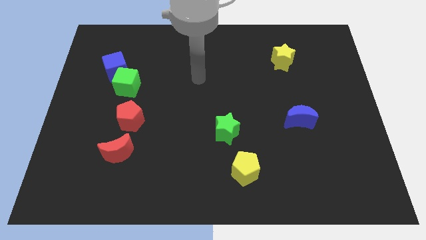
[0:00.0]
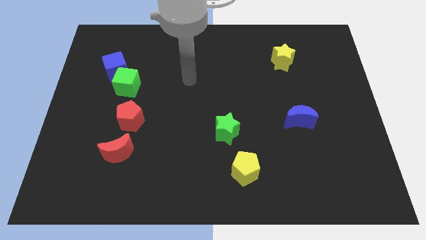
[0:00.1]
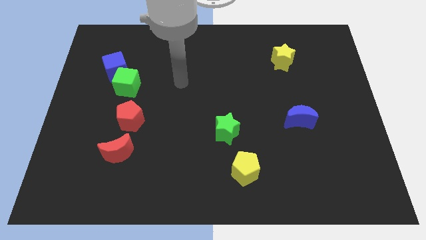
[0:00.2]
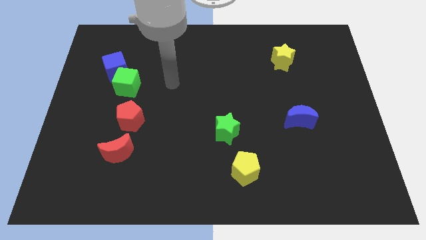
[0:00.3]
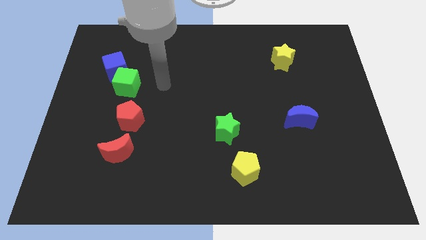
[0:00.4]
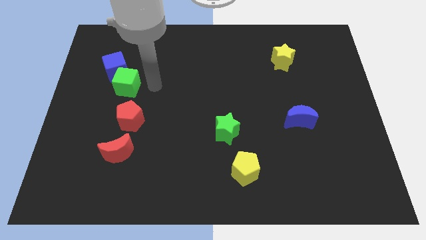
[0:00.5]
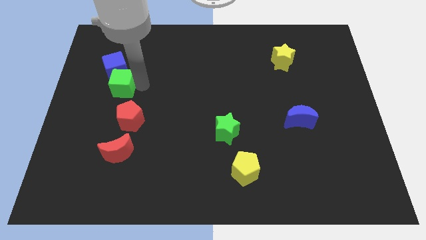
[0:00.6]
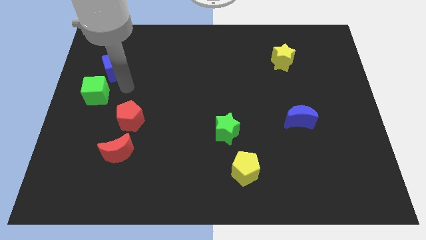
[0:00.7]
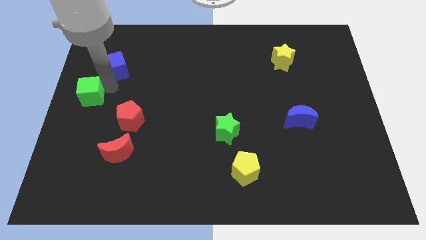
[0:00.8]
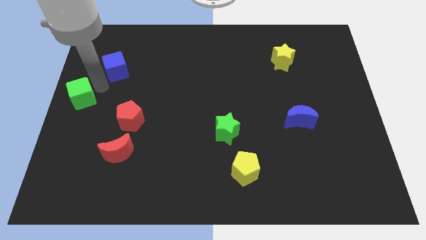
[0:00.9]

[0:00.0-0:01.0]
move the blue cube away from the green cube

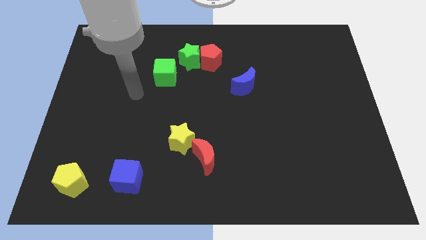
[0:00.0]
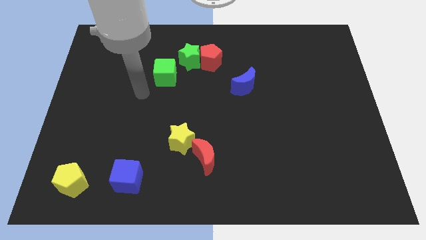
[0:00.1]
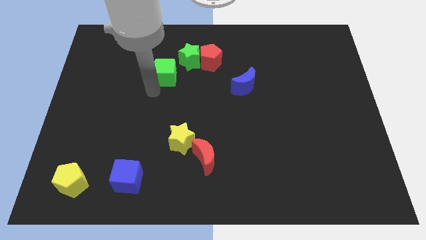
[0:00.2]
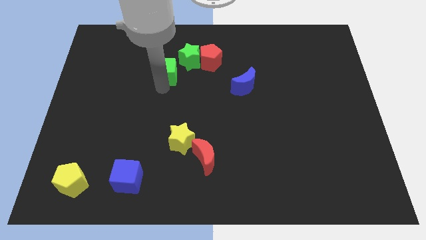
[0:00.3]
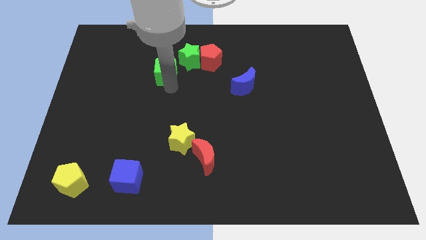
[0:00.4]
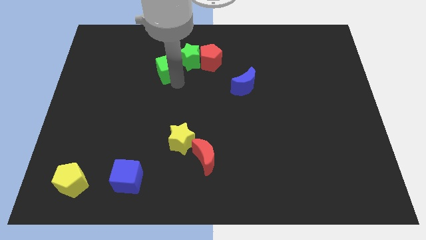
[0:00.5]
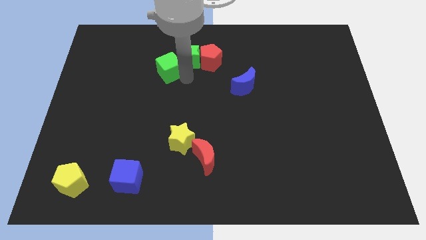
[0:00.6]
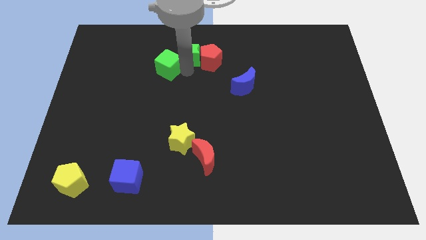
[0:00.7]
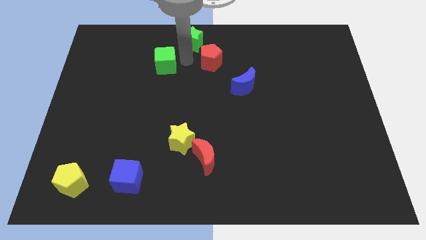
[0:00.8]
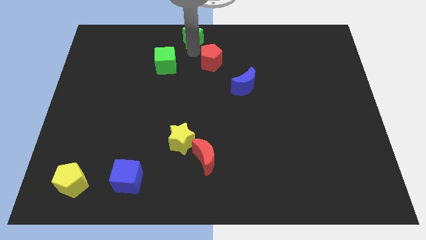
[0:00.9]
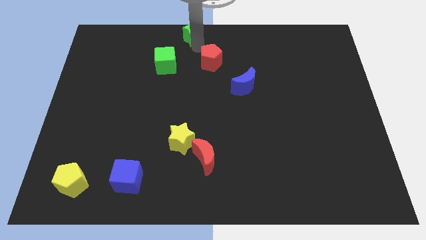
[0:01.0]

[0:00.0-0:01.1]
pull the red pentagon apart from the green star

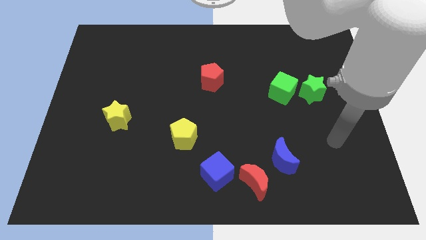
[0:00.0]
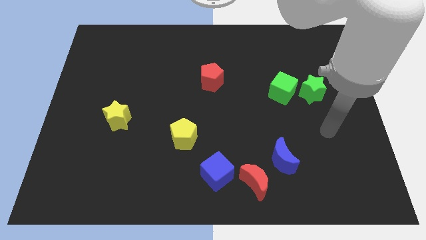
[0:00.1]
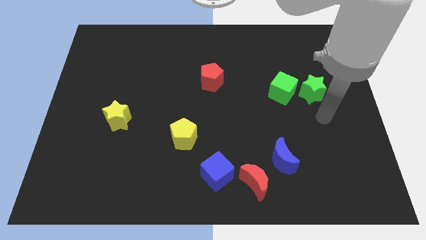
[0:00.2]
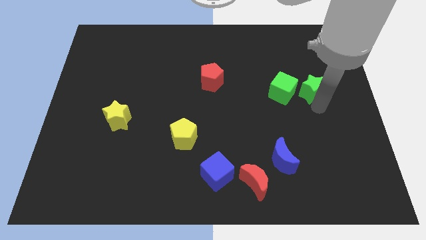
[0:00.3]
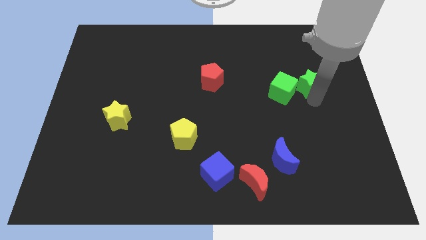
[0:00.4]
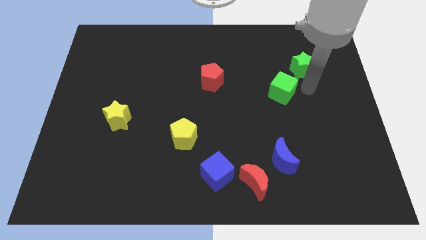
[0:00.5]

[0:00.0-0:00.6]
separate the green cube from the green star

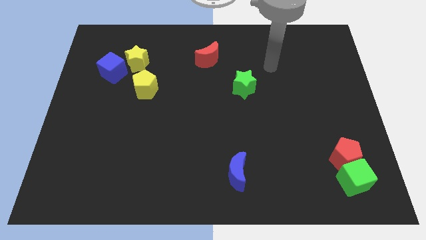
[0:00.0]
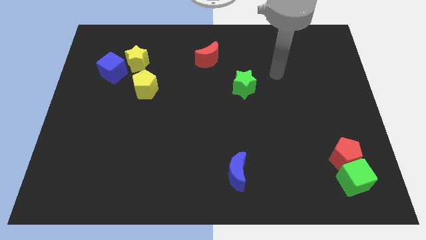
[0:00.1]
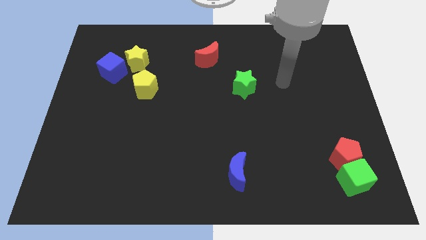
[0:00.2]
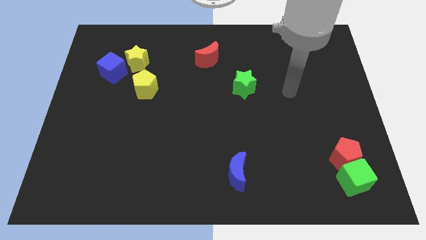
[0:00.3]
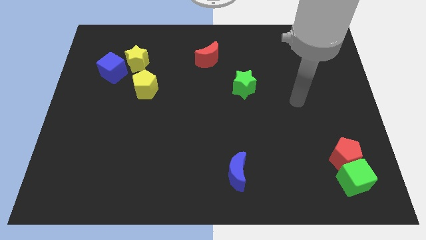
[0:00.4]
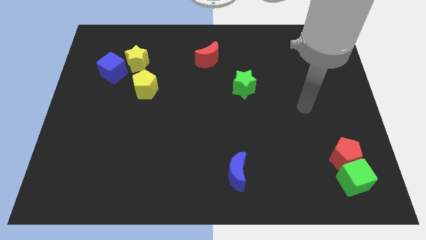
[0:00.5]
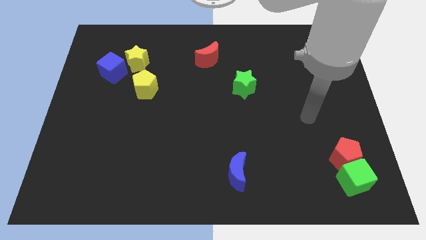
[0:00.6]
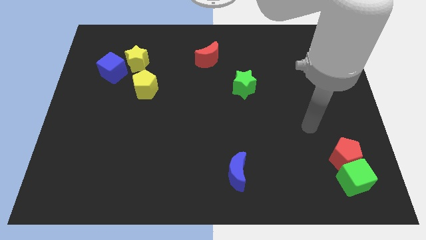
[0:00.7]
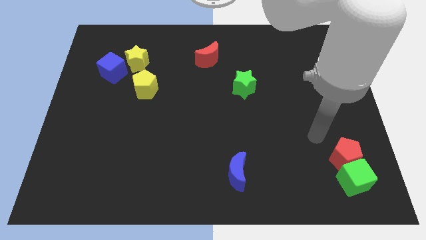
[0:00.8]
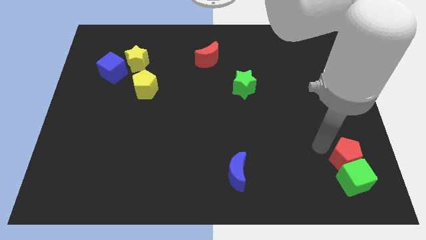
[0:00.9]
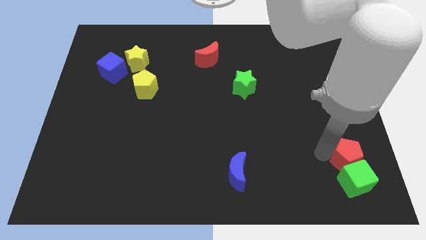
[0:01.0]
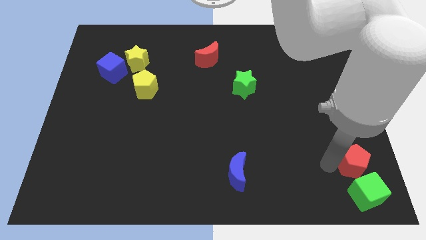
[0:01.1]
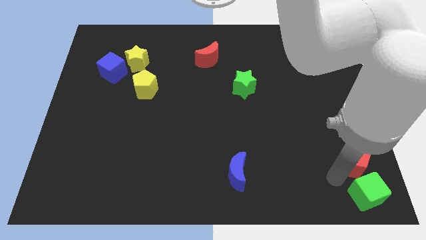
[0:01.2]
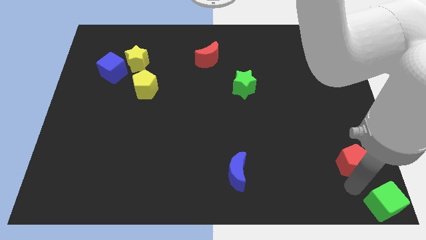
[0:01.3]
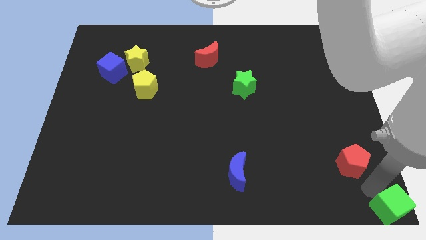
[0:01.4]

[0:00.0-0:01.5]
pull the red pentagon apart from the green cube

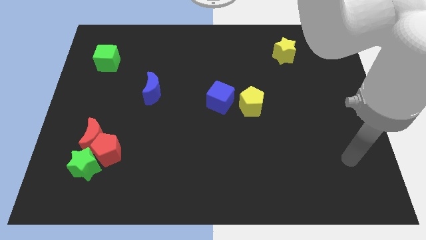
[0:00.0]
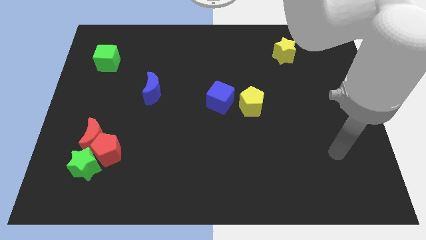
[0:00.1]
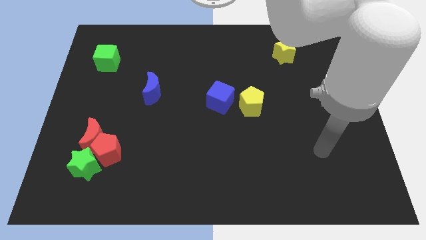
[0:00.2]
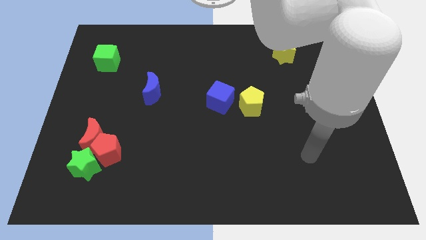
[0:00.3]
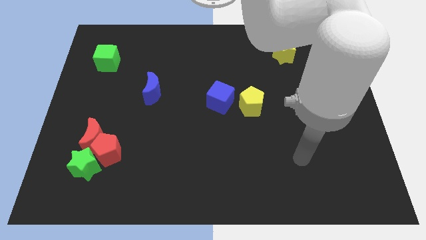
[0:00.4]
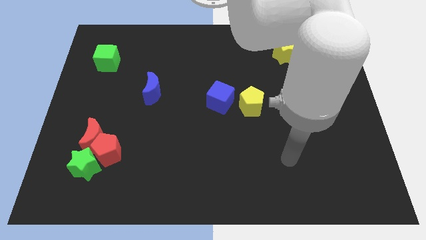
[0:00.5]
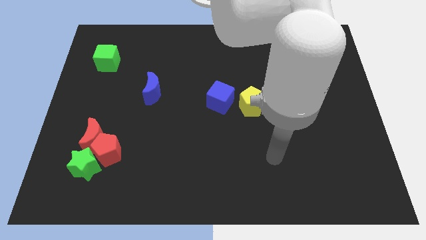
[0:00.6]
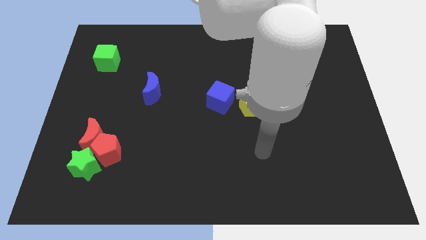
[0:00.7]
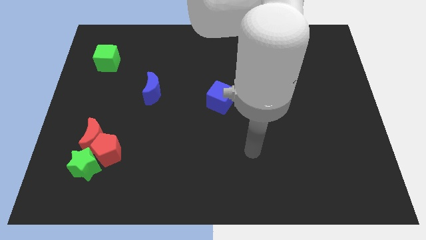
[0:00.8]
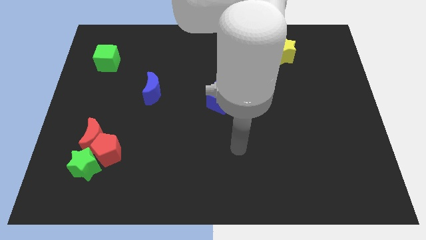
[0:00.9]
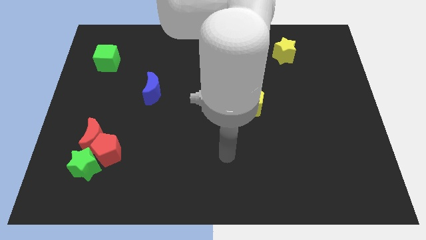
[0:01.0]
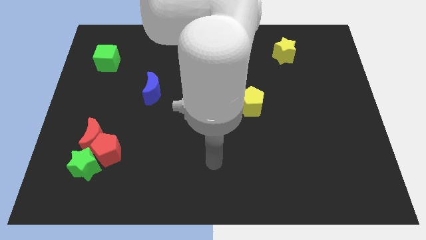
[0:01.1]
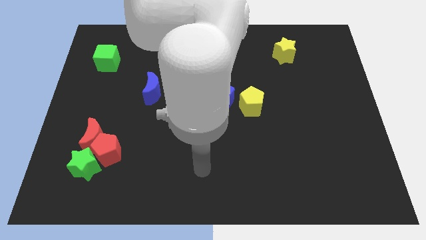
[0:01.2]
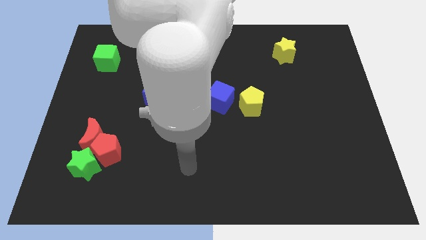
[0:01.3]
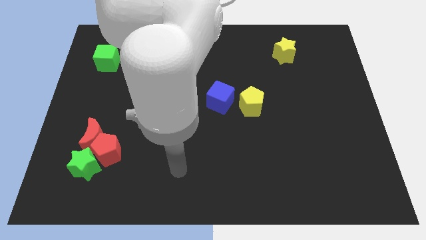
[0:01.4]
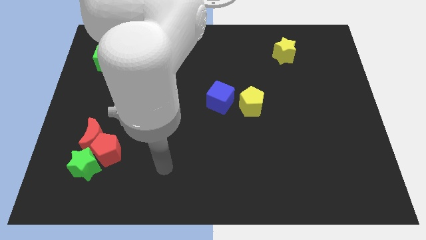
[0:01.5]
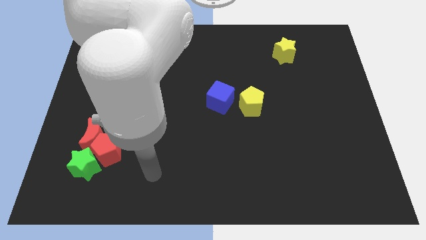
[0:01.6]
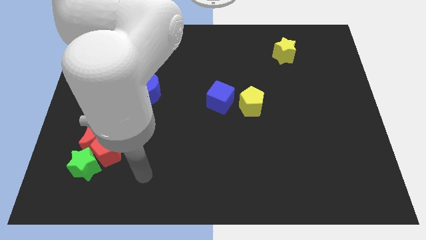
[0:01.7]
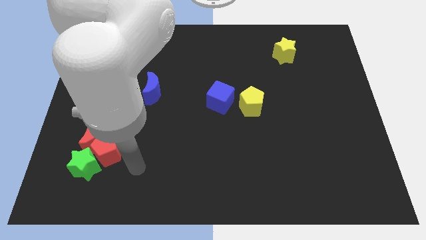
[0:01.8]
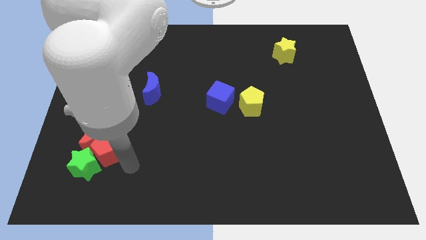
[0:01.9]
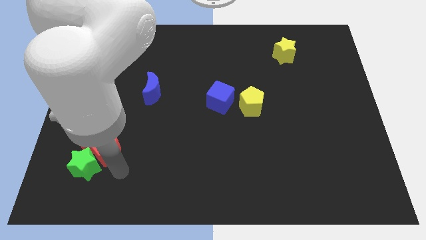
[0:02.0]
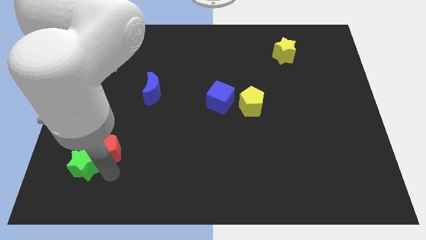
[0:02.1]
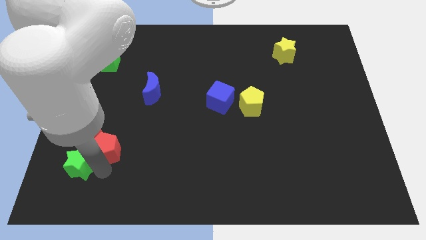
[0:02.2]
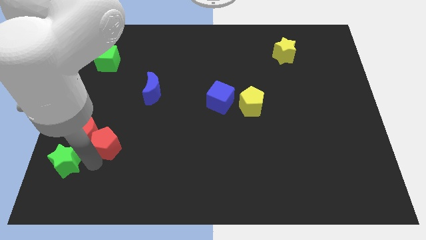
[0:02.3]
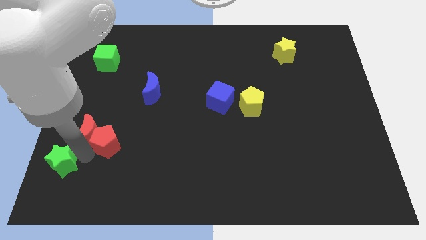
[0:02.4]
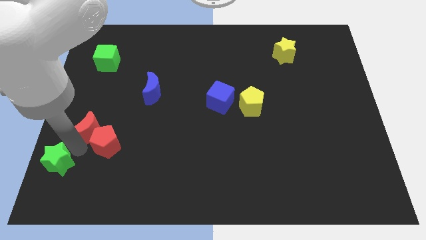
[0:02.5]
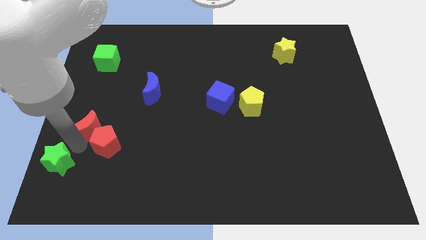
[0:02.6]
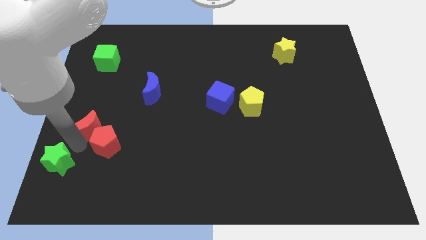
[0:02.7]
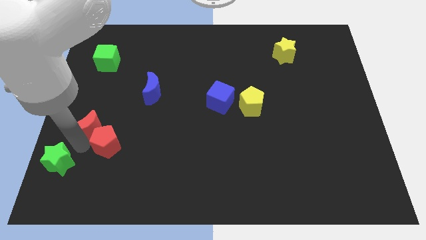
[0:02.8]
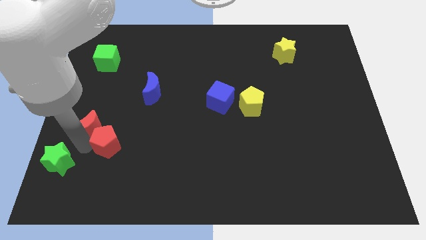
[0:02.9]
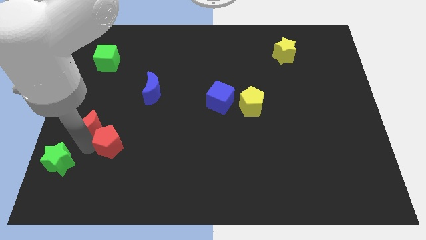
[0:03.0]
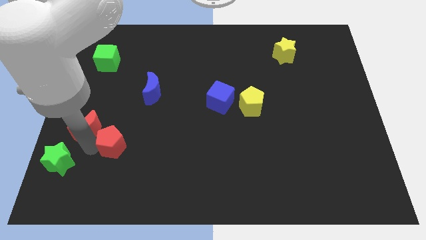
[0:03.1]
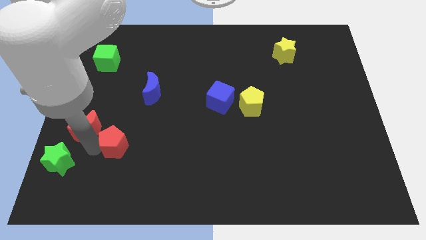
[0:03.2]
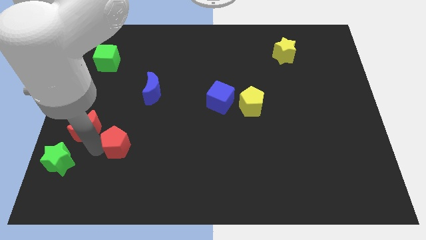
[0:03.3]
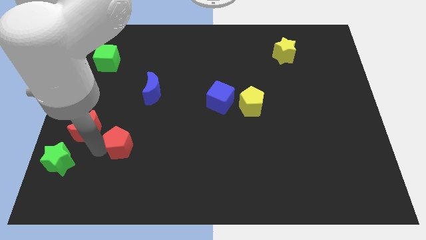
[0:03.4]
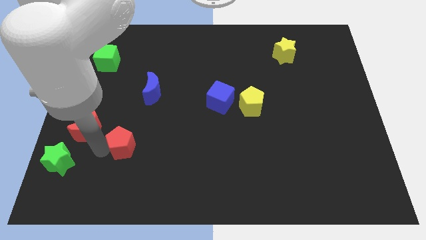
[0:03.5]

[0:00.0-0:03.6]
pull the red pentagon apart from the red moon and green star

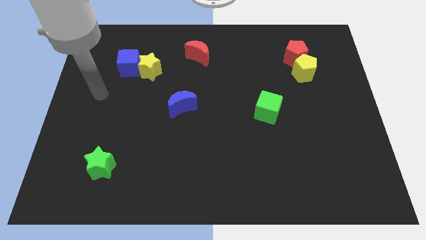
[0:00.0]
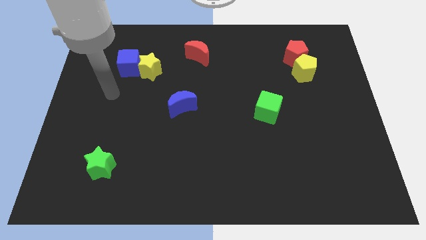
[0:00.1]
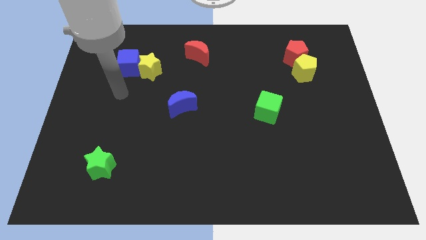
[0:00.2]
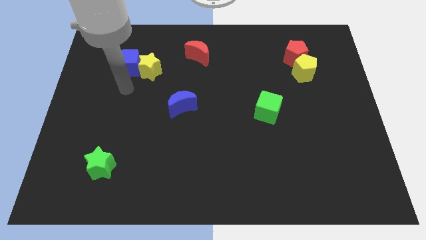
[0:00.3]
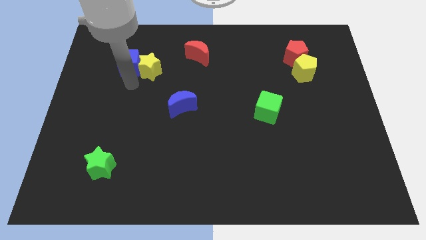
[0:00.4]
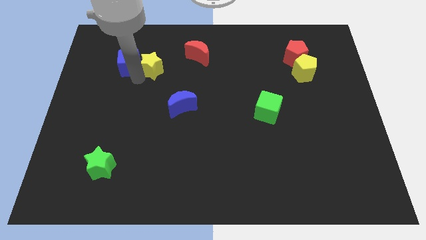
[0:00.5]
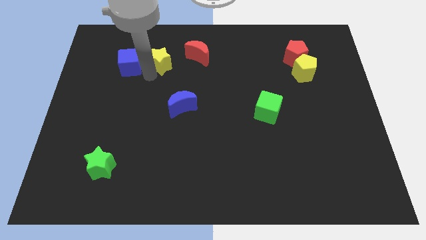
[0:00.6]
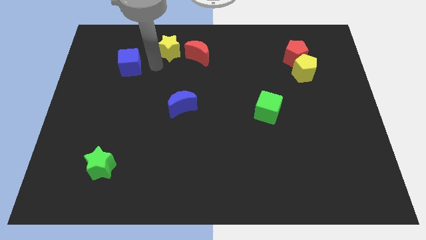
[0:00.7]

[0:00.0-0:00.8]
move the blue cube away from the yellow star

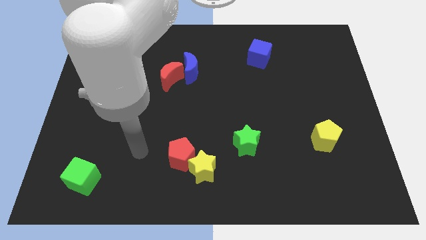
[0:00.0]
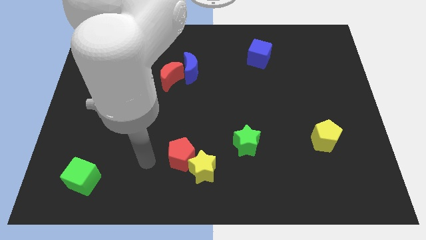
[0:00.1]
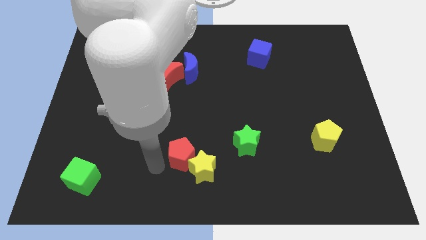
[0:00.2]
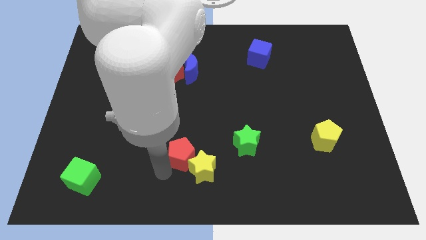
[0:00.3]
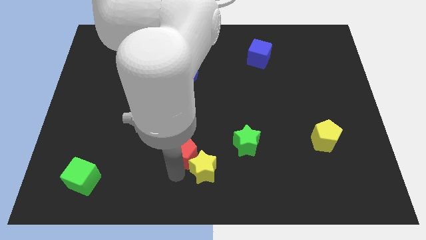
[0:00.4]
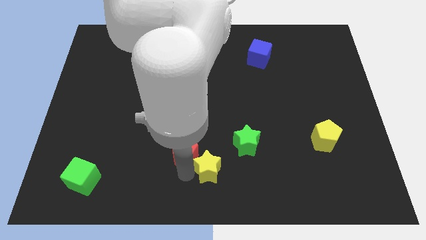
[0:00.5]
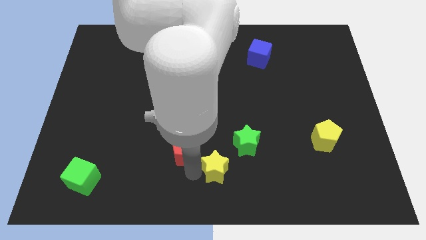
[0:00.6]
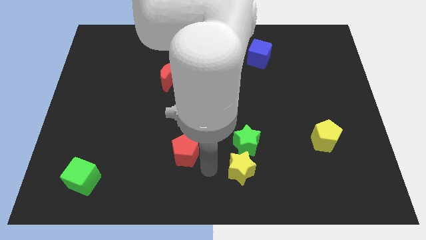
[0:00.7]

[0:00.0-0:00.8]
pull the red pentagon apart from the yellow star
